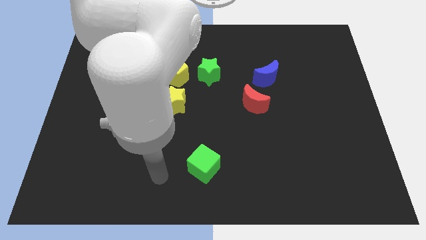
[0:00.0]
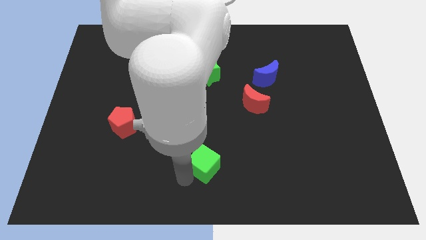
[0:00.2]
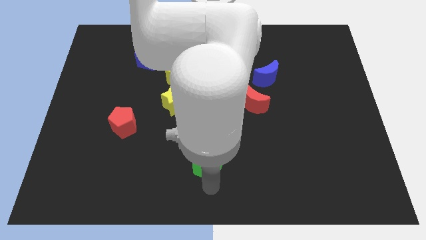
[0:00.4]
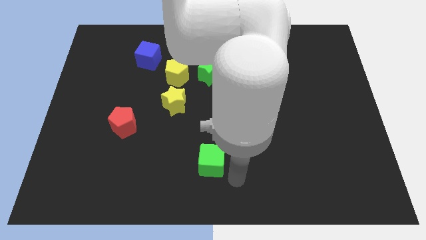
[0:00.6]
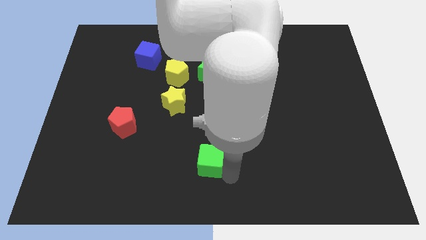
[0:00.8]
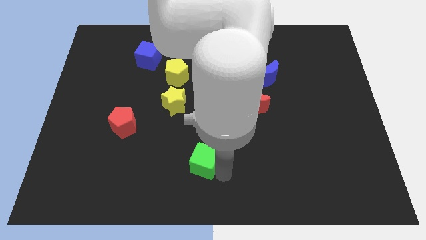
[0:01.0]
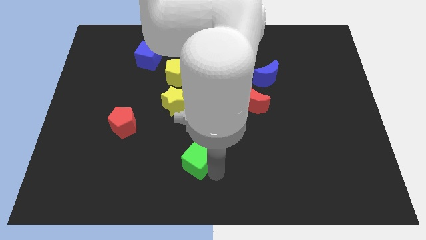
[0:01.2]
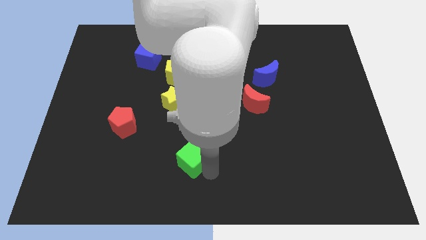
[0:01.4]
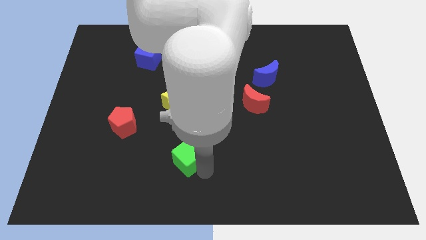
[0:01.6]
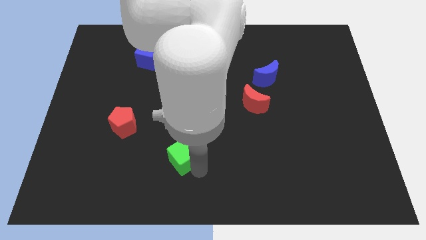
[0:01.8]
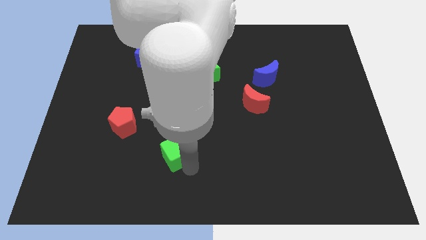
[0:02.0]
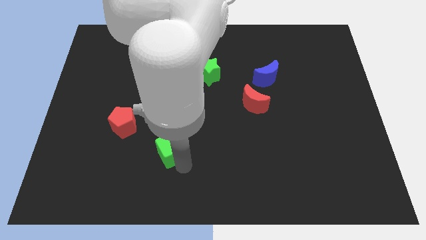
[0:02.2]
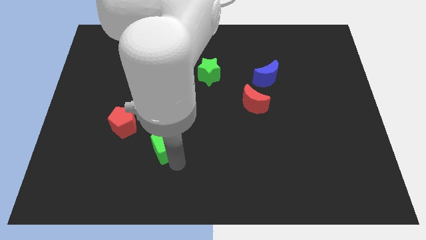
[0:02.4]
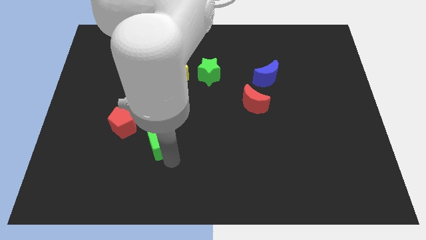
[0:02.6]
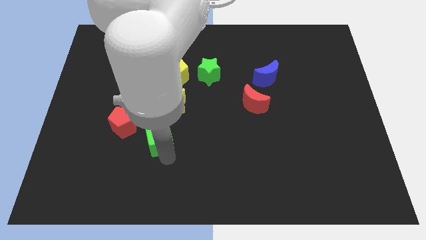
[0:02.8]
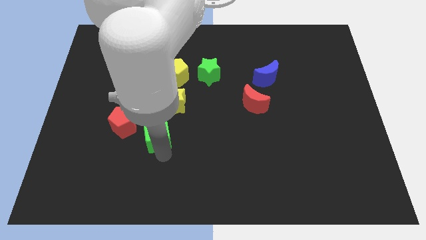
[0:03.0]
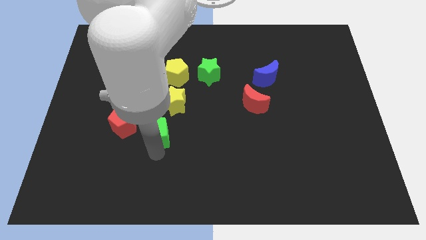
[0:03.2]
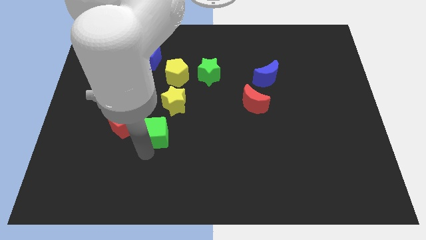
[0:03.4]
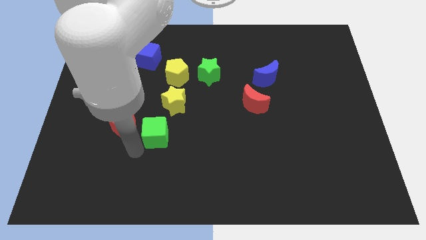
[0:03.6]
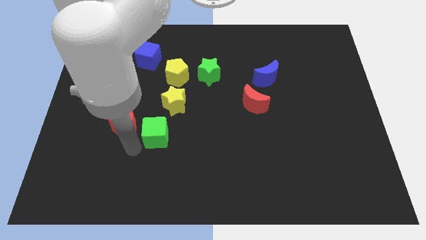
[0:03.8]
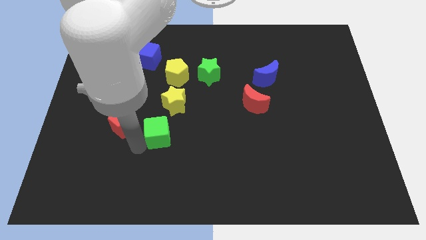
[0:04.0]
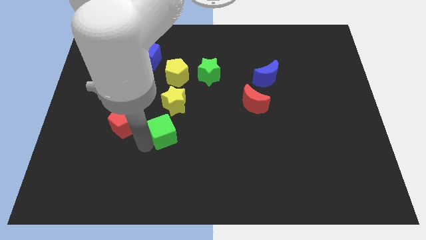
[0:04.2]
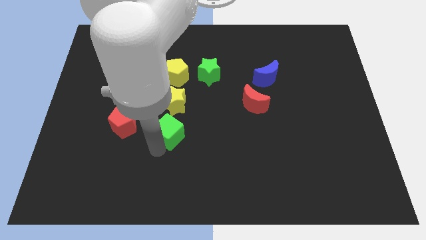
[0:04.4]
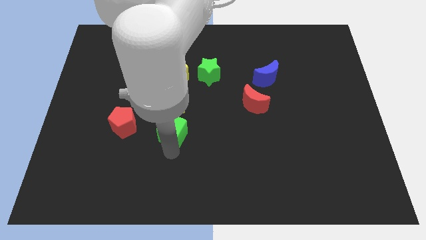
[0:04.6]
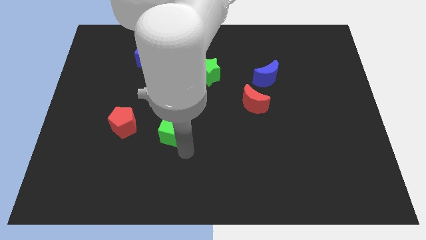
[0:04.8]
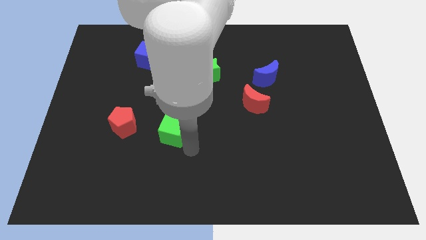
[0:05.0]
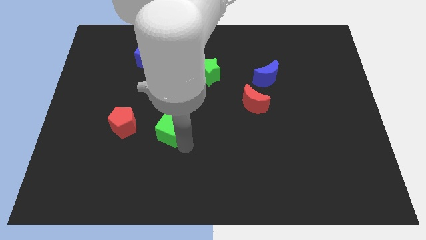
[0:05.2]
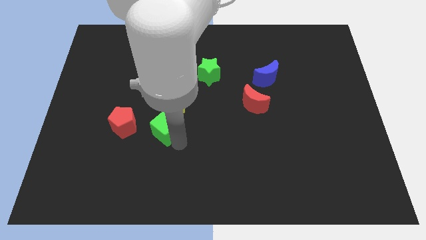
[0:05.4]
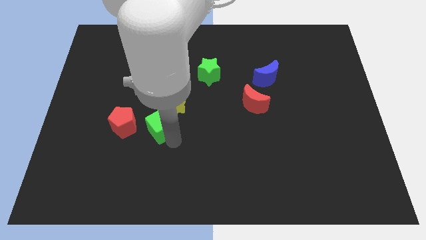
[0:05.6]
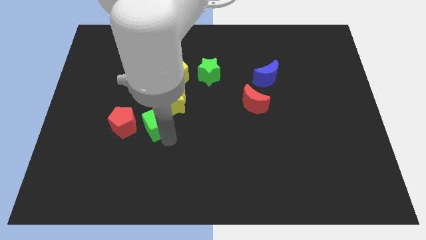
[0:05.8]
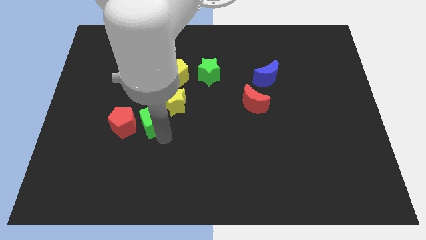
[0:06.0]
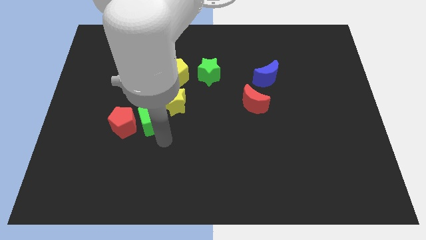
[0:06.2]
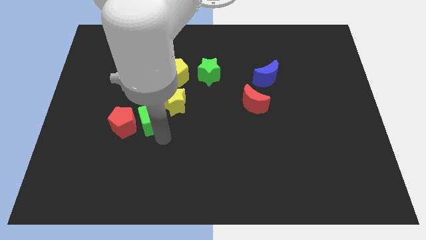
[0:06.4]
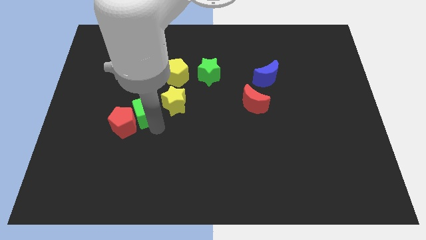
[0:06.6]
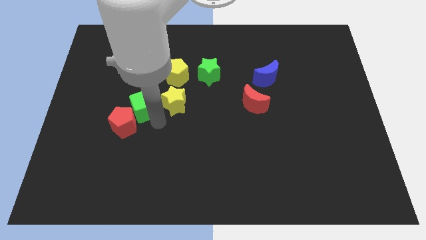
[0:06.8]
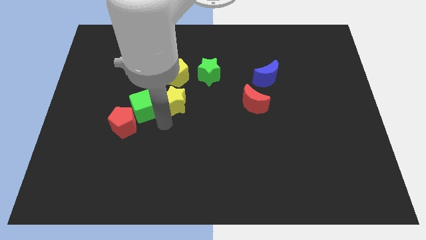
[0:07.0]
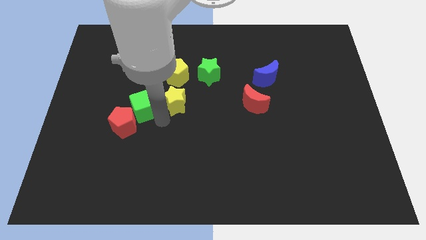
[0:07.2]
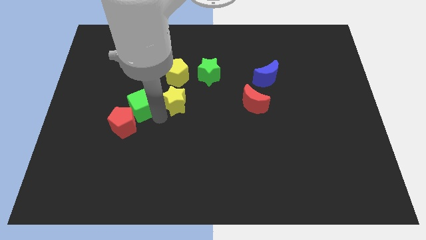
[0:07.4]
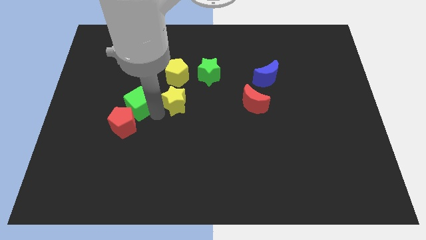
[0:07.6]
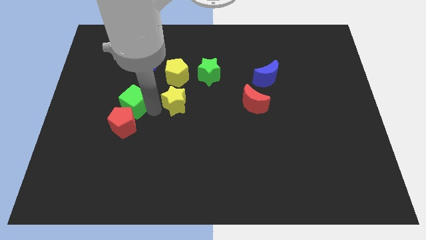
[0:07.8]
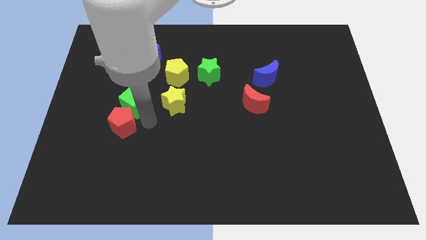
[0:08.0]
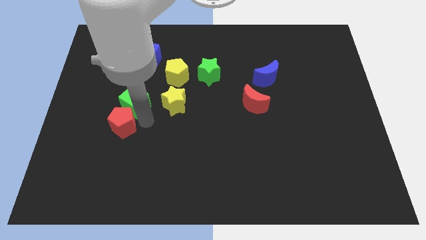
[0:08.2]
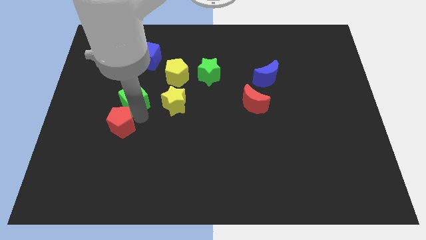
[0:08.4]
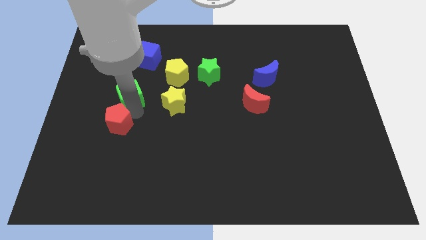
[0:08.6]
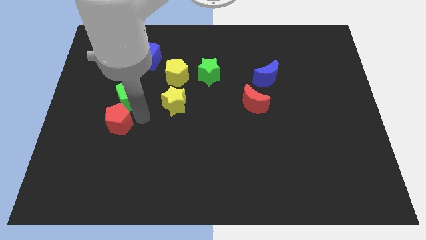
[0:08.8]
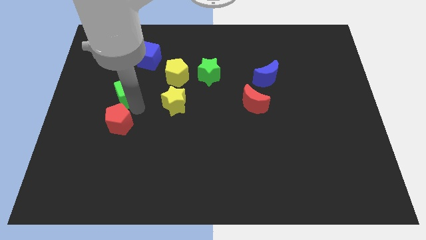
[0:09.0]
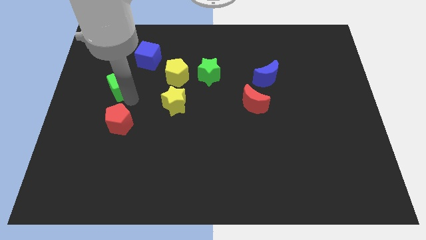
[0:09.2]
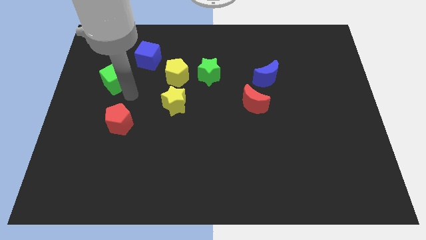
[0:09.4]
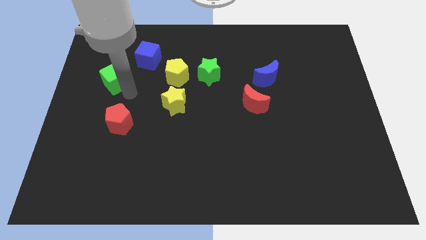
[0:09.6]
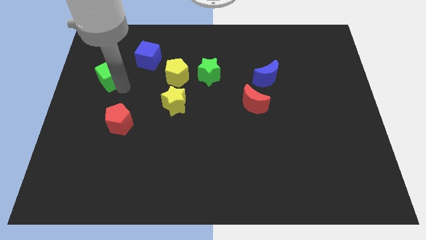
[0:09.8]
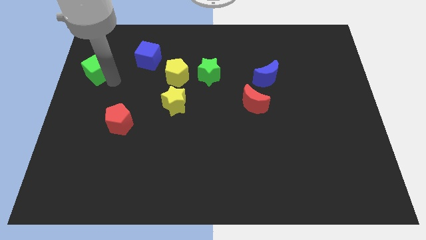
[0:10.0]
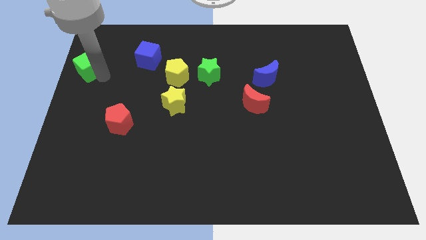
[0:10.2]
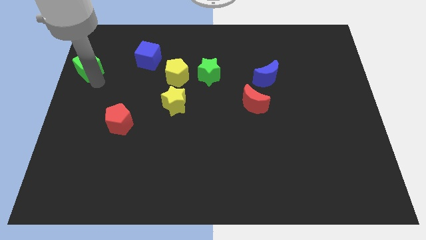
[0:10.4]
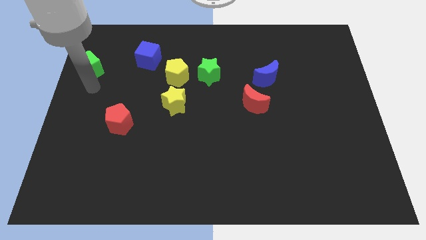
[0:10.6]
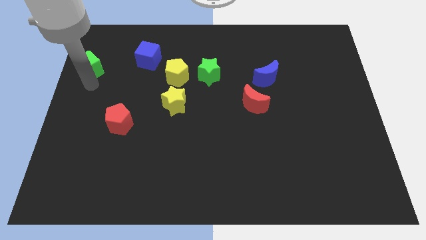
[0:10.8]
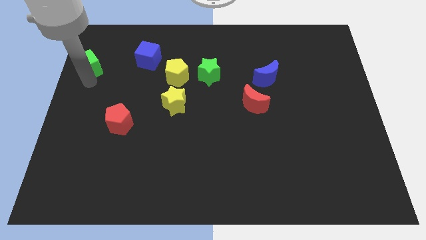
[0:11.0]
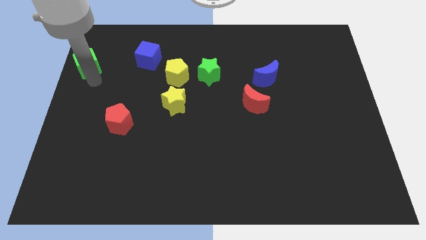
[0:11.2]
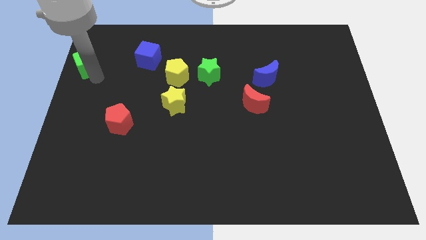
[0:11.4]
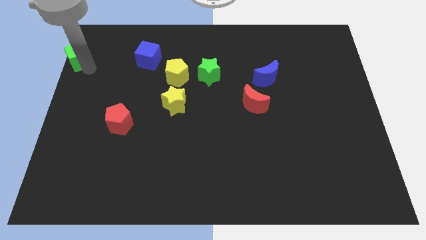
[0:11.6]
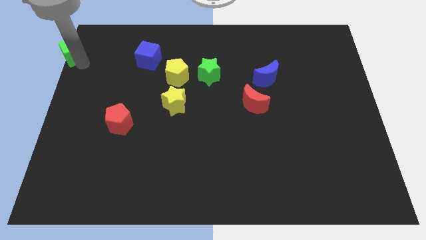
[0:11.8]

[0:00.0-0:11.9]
push the green cube to the top left corner
